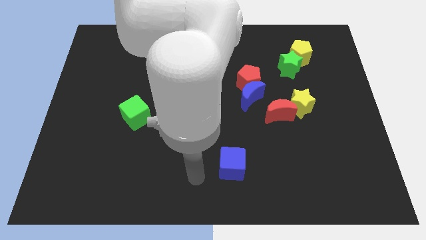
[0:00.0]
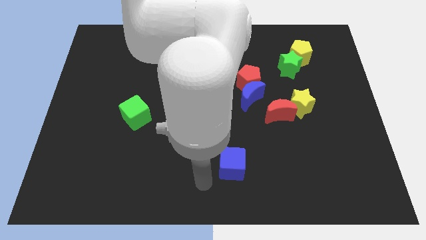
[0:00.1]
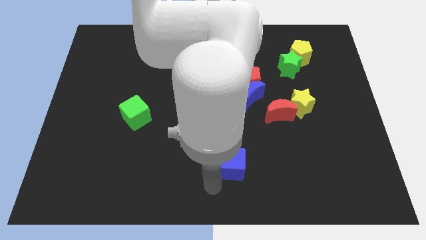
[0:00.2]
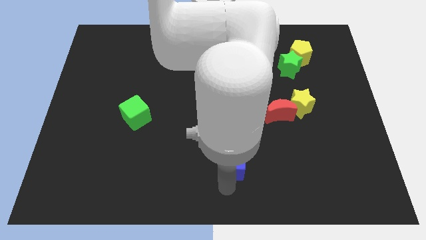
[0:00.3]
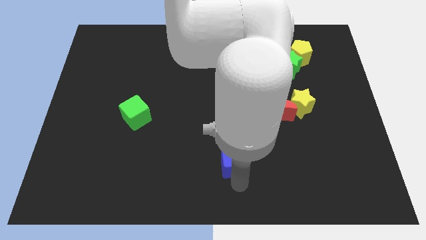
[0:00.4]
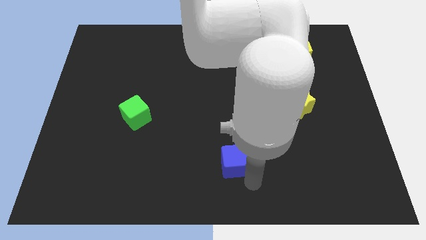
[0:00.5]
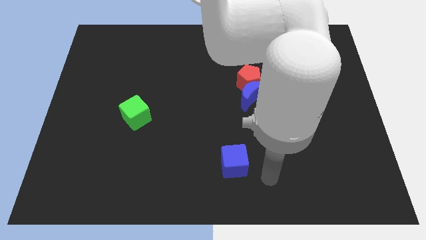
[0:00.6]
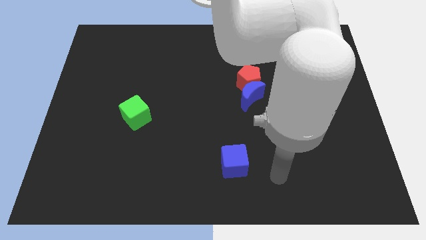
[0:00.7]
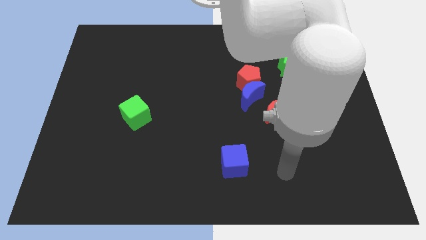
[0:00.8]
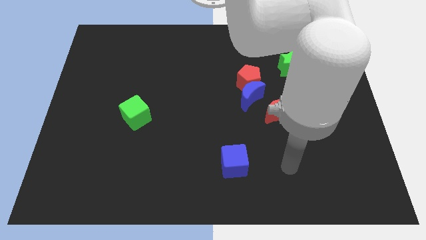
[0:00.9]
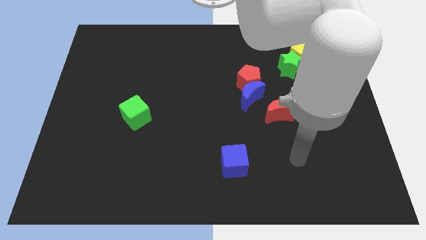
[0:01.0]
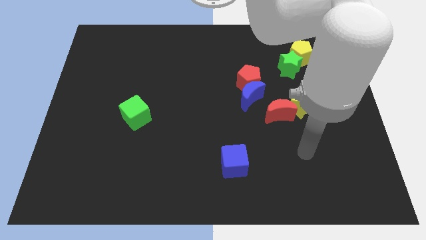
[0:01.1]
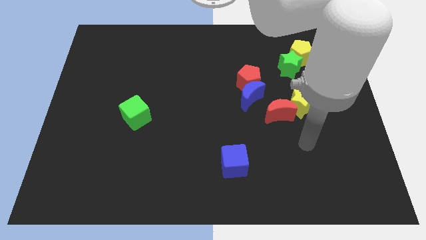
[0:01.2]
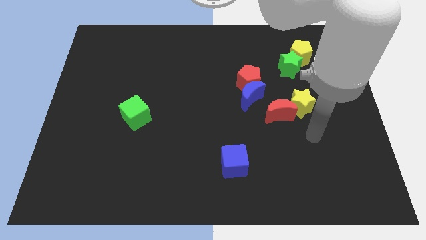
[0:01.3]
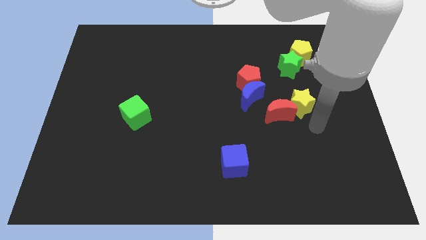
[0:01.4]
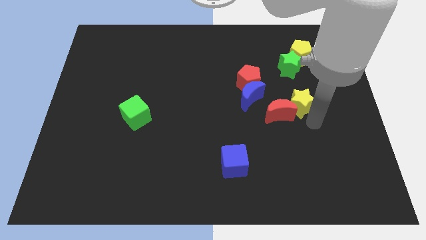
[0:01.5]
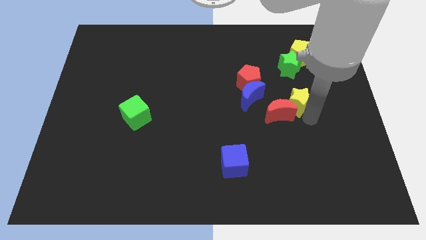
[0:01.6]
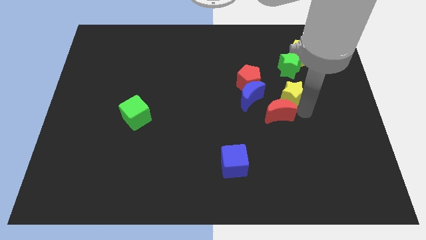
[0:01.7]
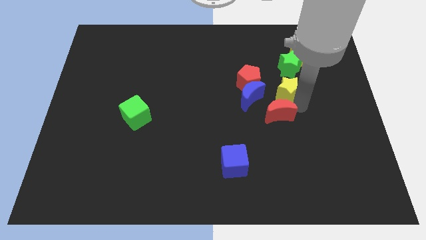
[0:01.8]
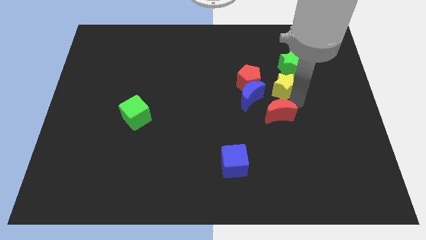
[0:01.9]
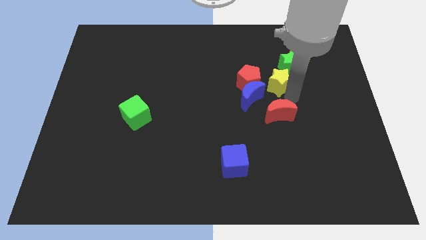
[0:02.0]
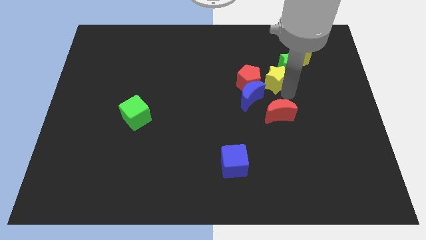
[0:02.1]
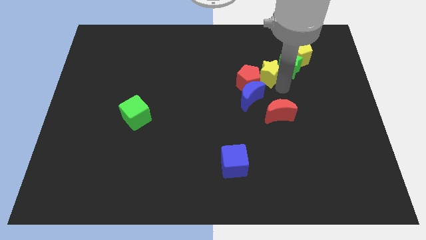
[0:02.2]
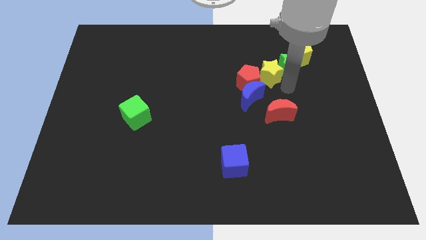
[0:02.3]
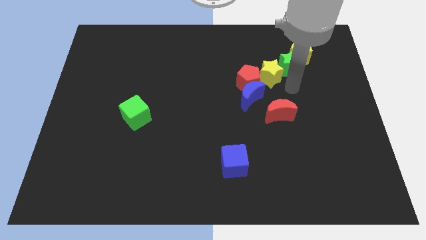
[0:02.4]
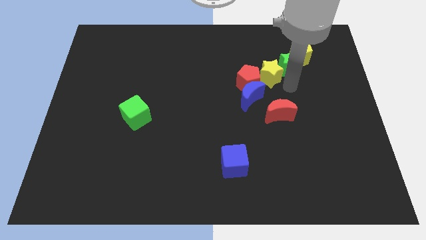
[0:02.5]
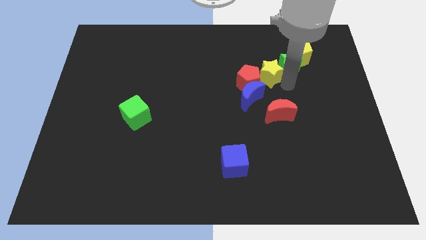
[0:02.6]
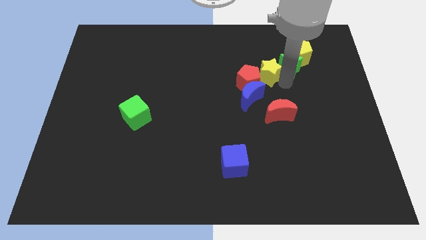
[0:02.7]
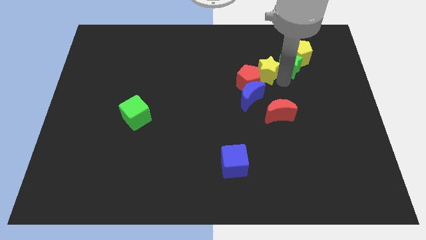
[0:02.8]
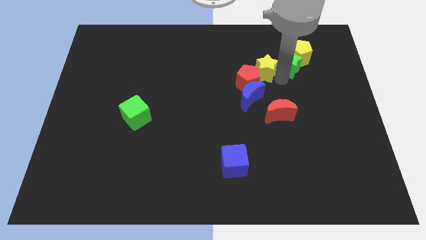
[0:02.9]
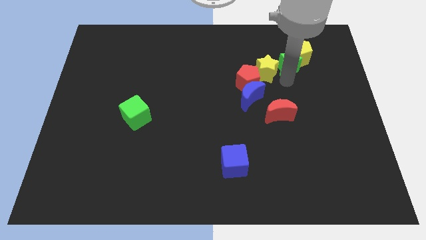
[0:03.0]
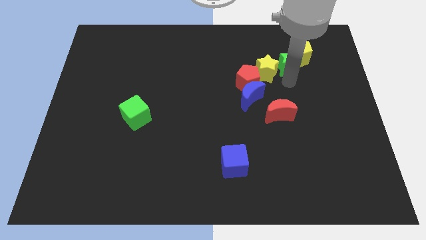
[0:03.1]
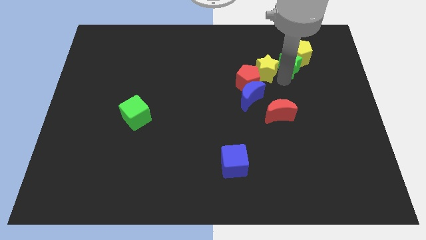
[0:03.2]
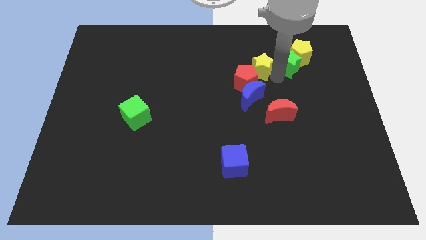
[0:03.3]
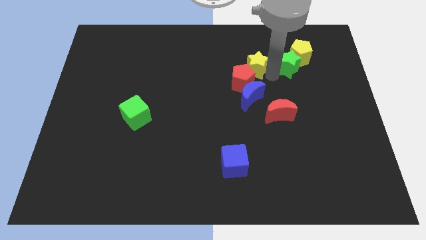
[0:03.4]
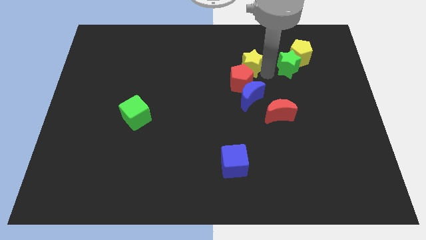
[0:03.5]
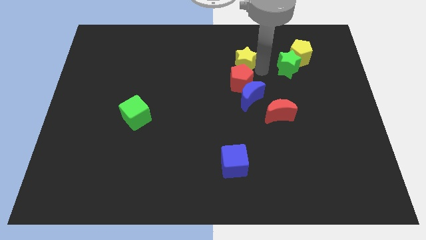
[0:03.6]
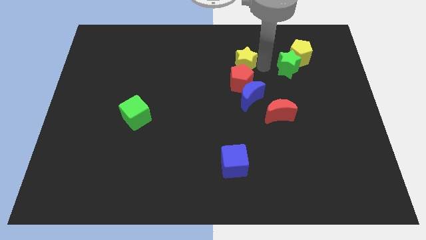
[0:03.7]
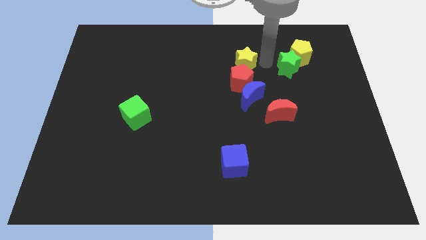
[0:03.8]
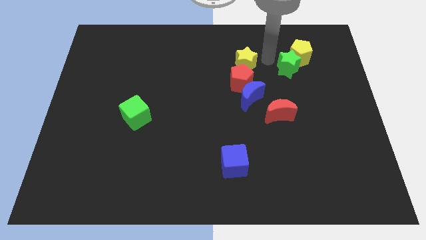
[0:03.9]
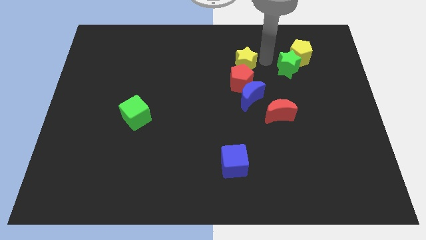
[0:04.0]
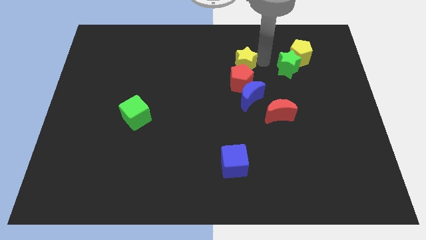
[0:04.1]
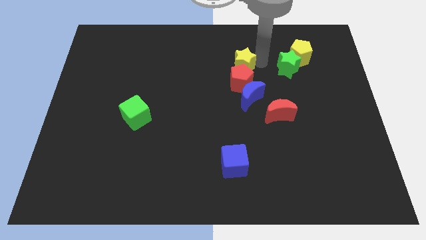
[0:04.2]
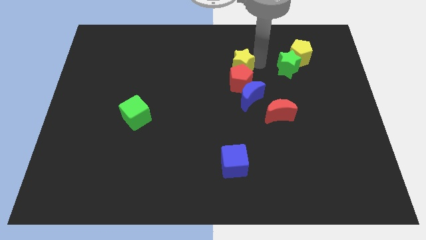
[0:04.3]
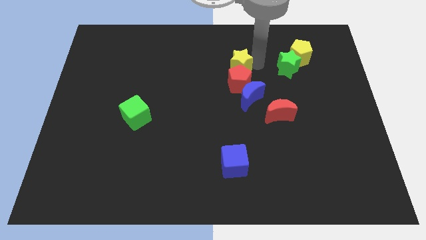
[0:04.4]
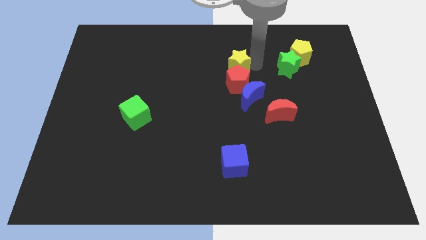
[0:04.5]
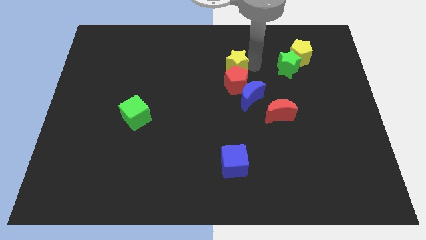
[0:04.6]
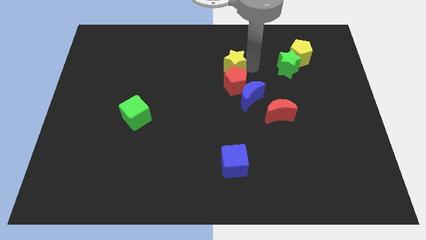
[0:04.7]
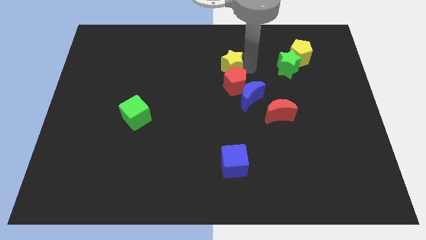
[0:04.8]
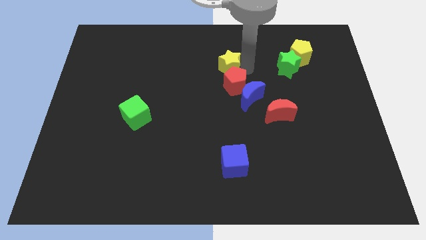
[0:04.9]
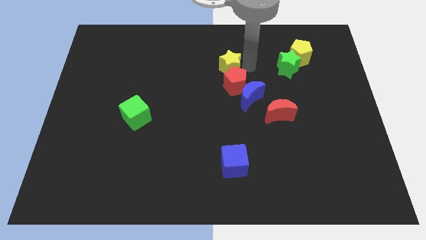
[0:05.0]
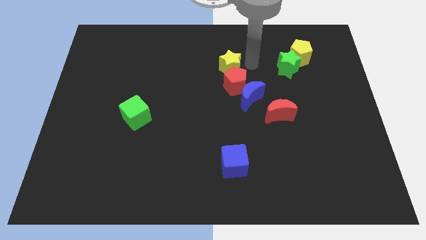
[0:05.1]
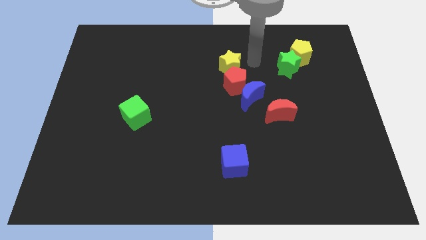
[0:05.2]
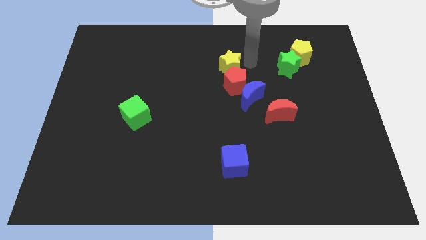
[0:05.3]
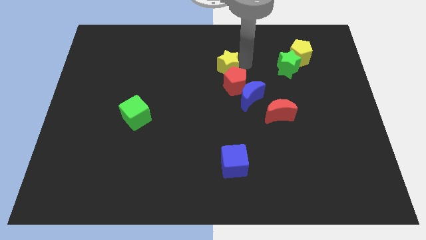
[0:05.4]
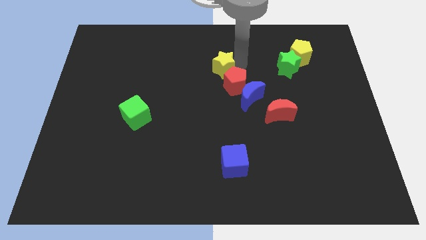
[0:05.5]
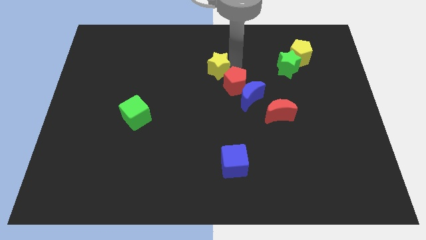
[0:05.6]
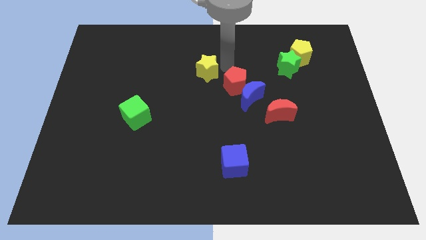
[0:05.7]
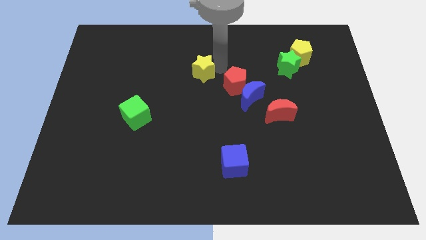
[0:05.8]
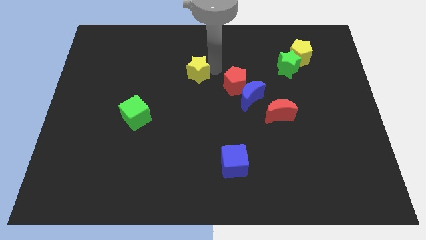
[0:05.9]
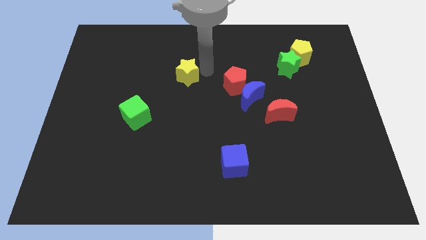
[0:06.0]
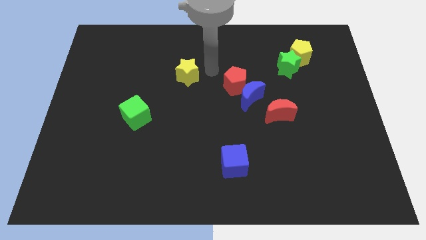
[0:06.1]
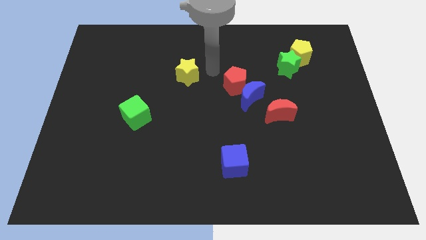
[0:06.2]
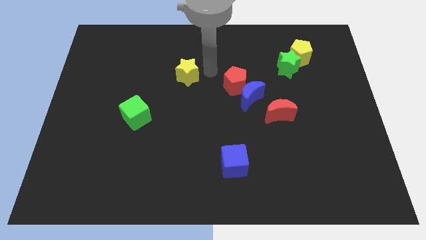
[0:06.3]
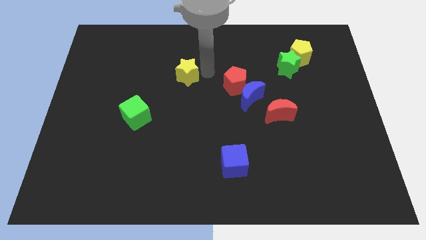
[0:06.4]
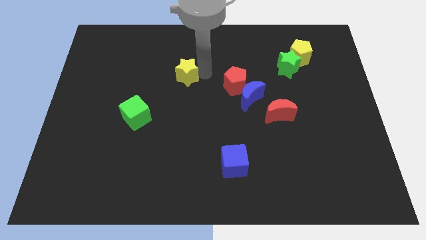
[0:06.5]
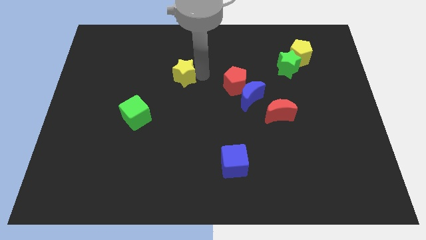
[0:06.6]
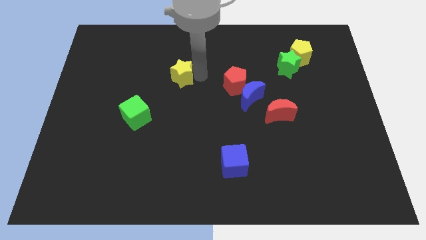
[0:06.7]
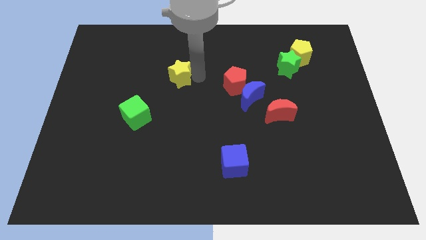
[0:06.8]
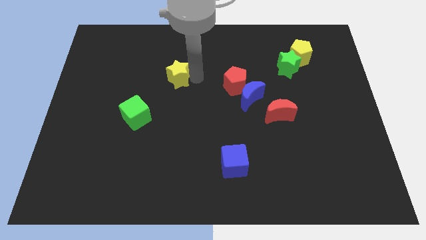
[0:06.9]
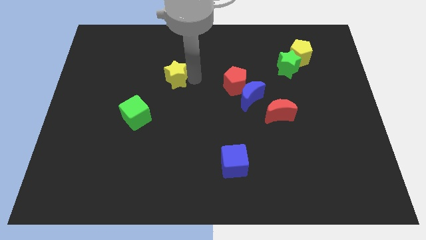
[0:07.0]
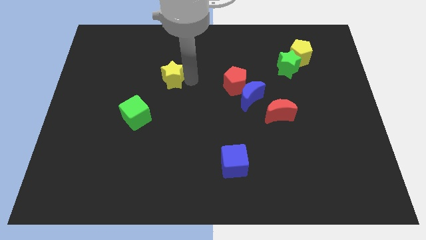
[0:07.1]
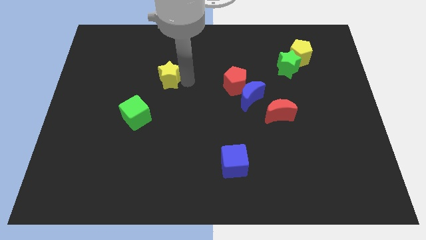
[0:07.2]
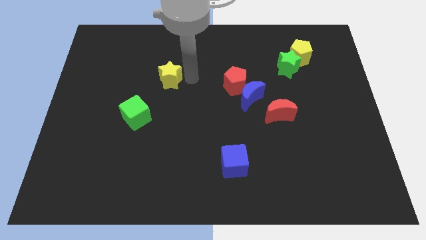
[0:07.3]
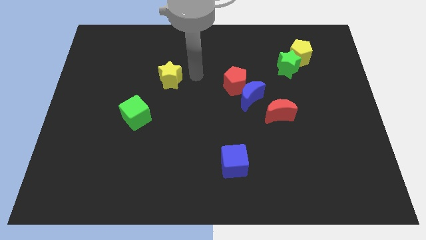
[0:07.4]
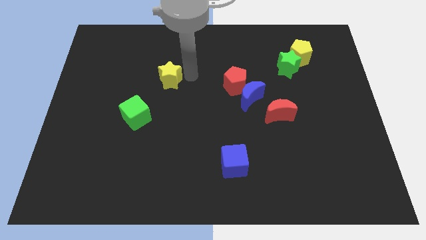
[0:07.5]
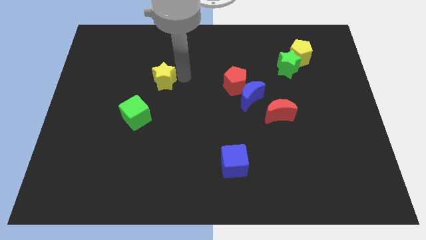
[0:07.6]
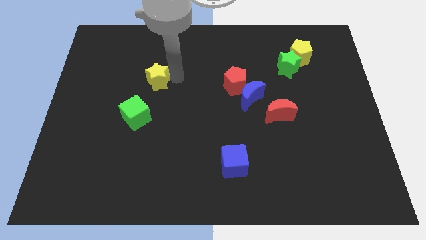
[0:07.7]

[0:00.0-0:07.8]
push the yellow star above the green cube
